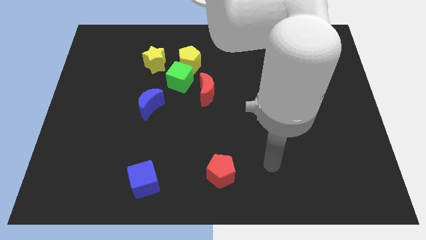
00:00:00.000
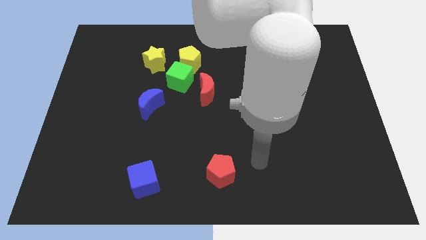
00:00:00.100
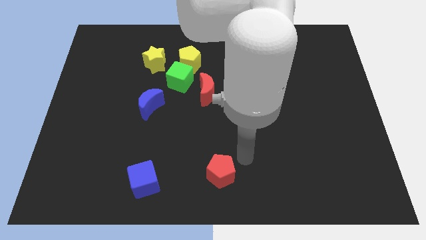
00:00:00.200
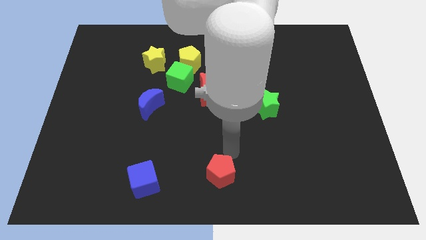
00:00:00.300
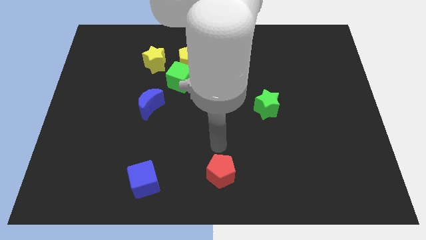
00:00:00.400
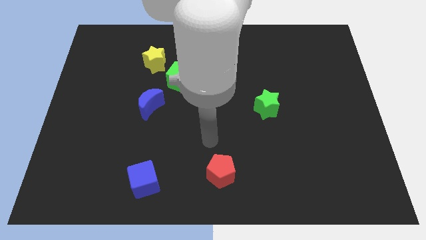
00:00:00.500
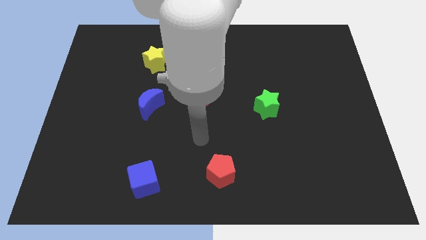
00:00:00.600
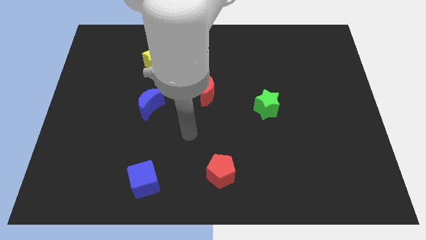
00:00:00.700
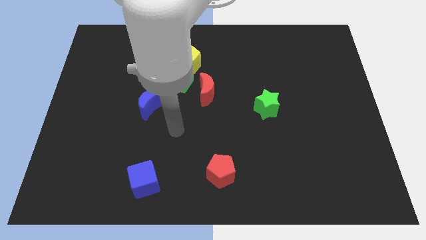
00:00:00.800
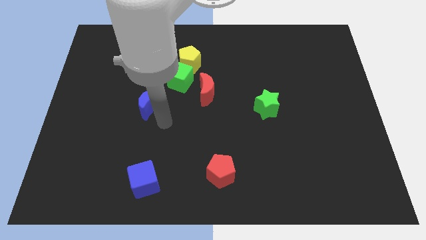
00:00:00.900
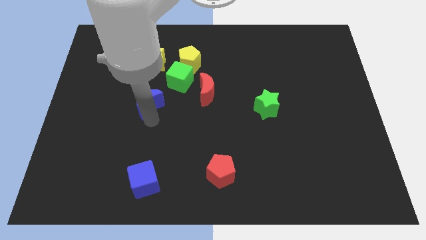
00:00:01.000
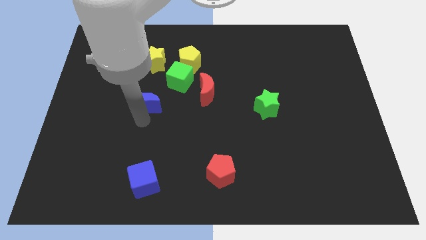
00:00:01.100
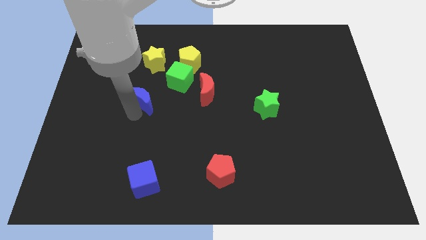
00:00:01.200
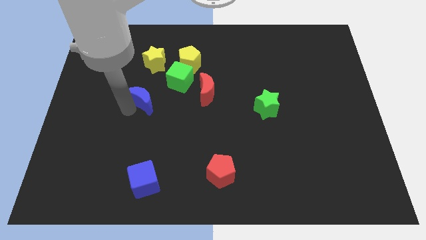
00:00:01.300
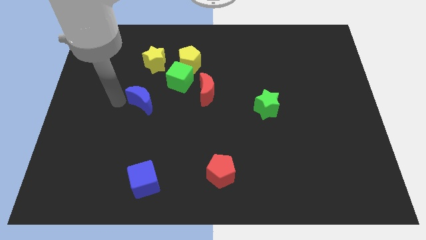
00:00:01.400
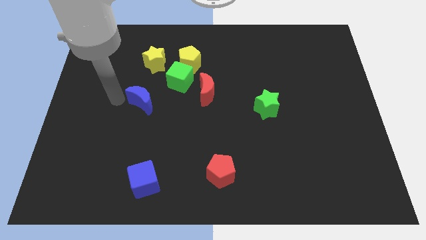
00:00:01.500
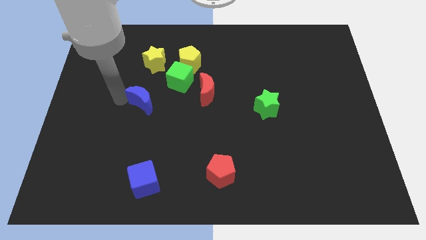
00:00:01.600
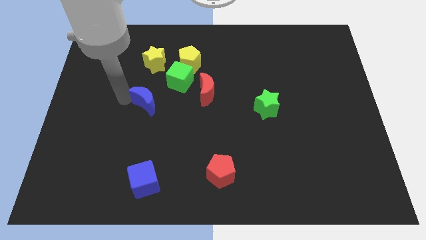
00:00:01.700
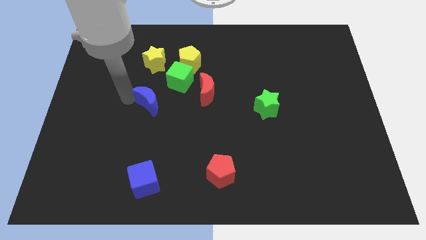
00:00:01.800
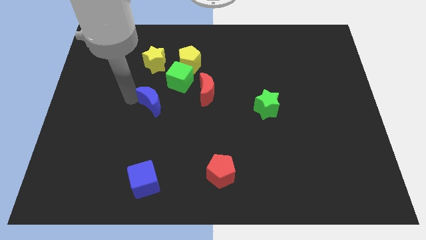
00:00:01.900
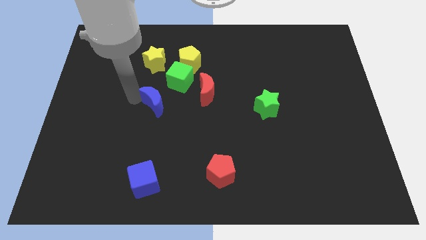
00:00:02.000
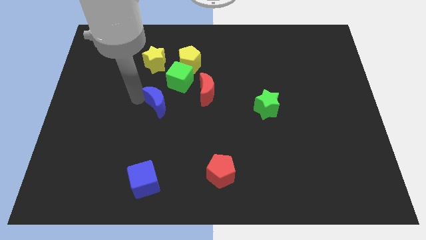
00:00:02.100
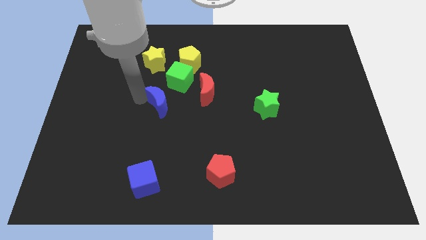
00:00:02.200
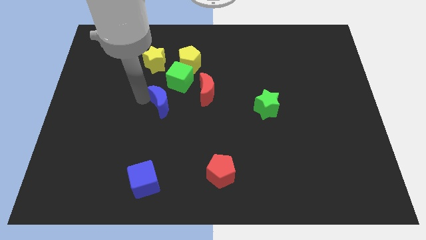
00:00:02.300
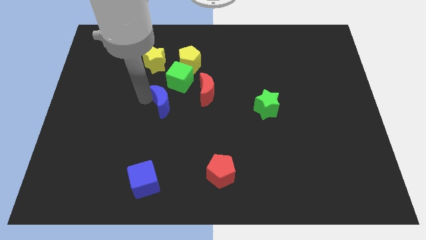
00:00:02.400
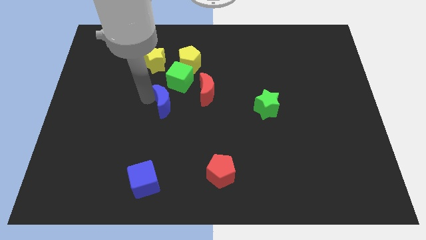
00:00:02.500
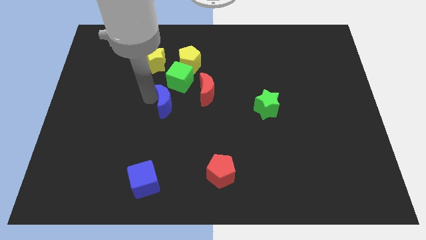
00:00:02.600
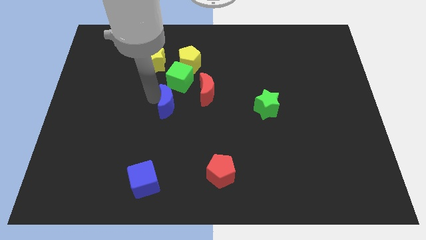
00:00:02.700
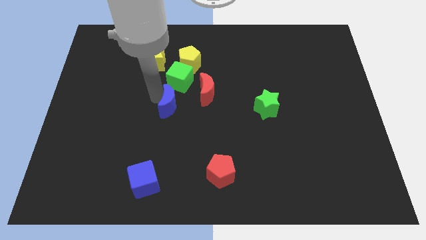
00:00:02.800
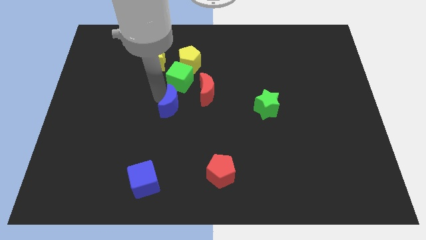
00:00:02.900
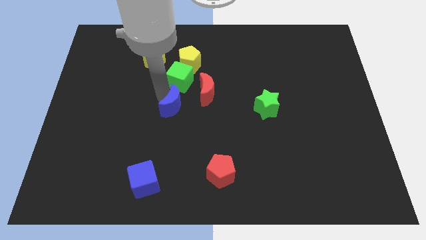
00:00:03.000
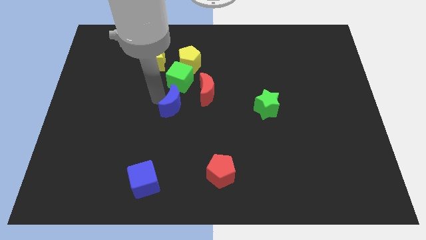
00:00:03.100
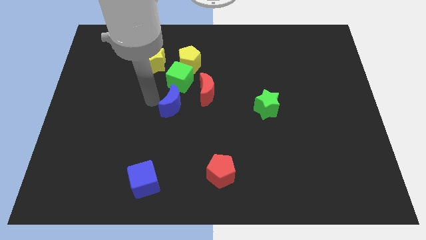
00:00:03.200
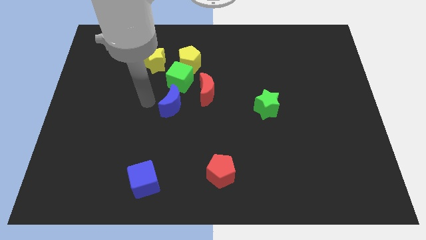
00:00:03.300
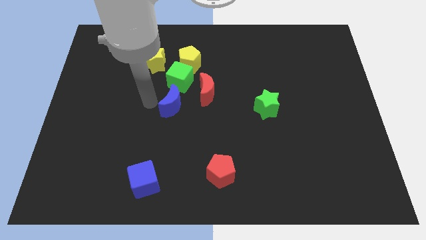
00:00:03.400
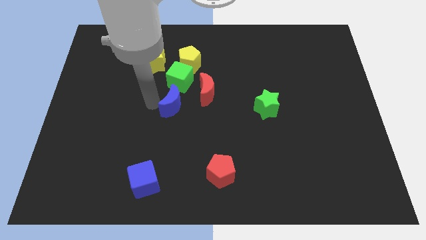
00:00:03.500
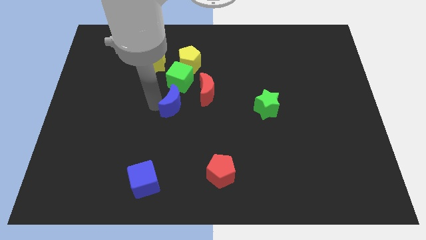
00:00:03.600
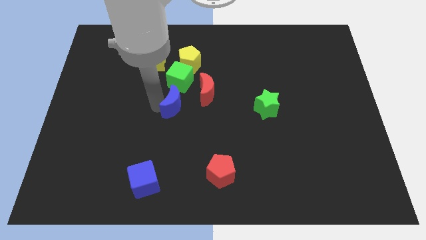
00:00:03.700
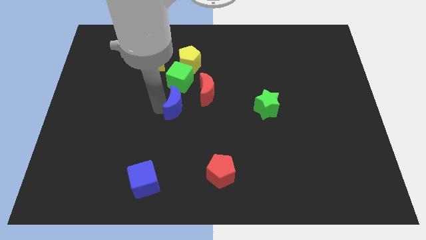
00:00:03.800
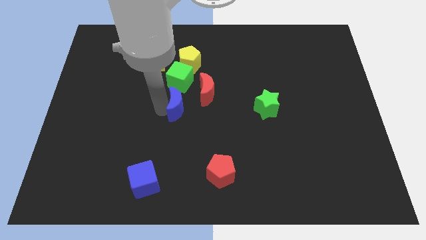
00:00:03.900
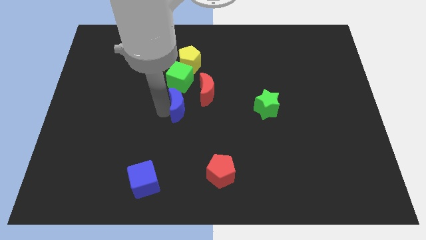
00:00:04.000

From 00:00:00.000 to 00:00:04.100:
slightly push the blue moon right

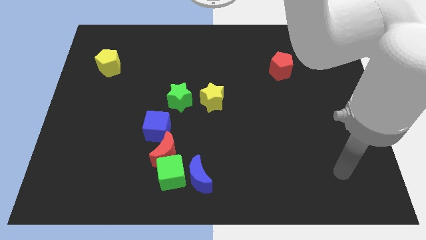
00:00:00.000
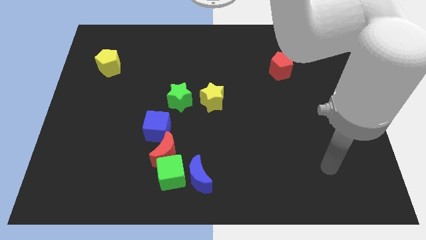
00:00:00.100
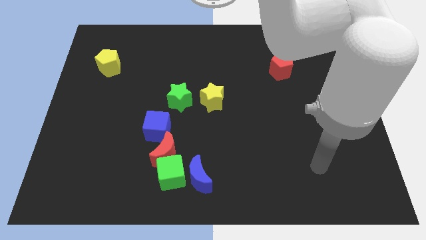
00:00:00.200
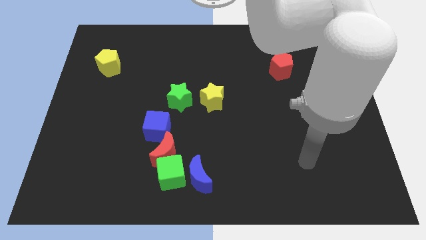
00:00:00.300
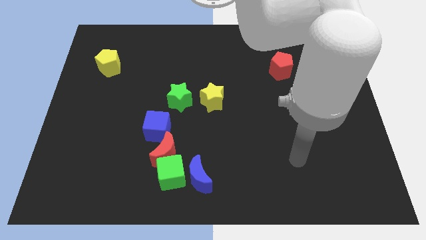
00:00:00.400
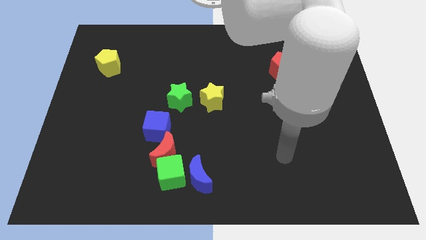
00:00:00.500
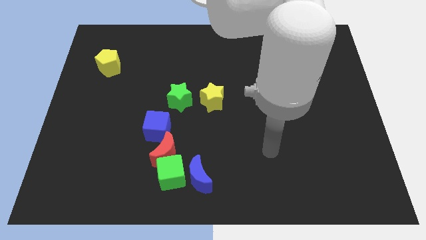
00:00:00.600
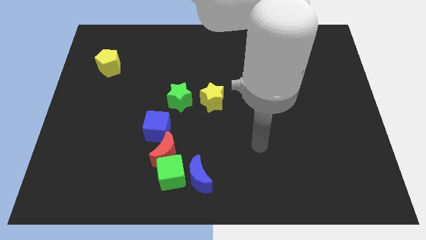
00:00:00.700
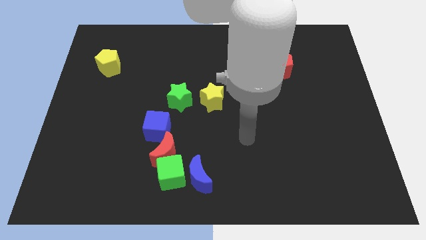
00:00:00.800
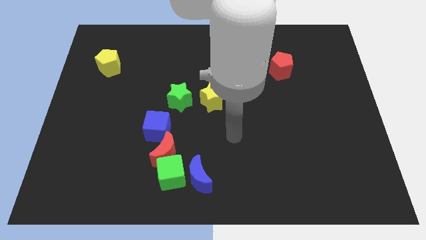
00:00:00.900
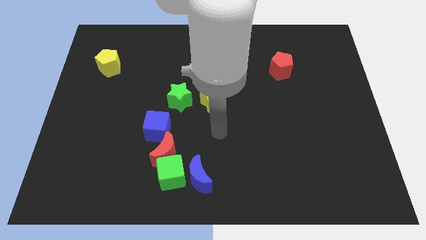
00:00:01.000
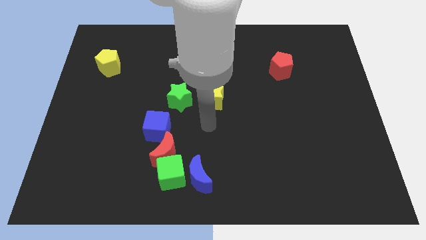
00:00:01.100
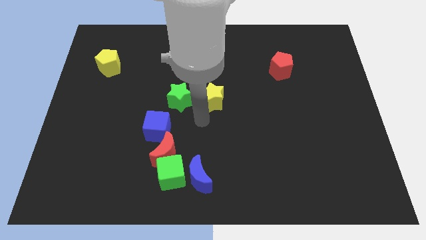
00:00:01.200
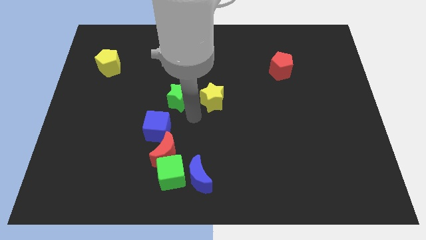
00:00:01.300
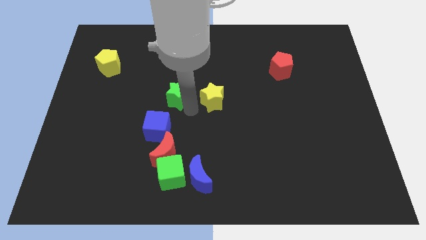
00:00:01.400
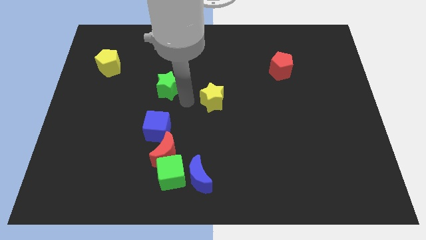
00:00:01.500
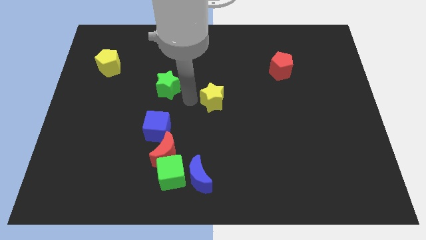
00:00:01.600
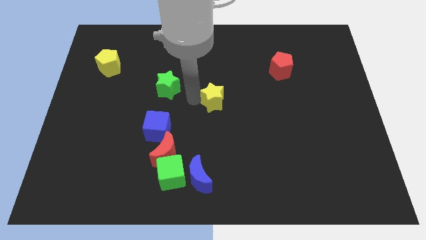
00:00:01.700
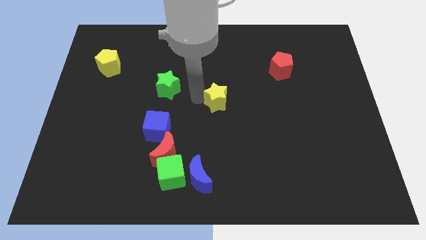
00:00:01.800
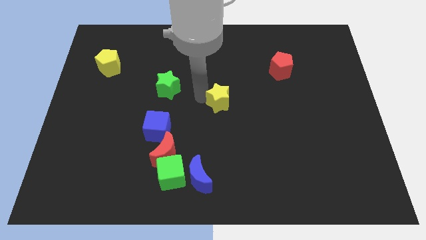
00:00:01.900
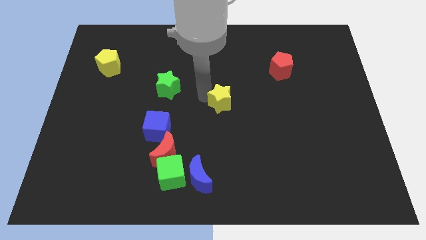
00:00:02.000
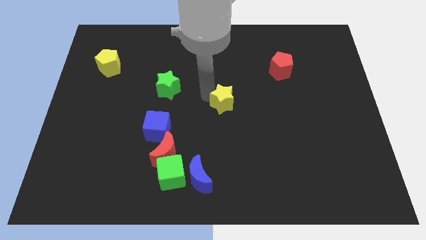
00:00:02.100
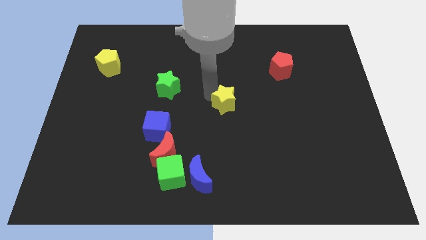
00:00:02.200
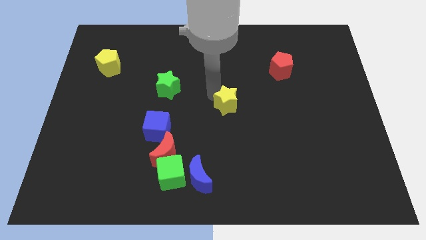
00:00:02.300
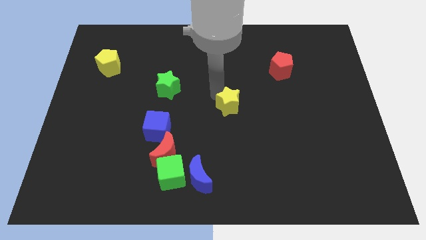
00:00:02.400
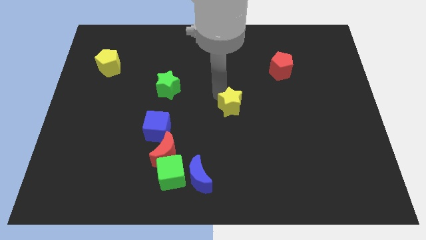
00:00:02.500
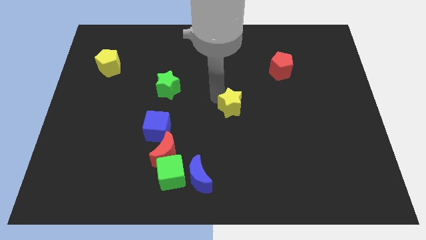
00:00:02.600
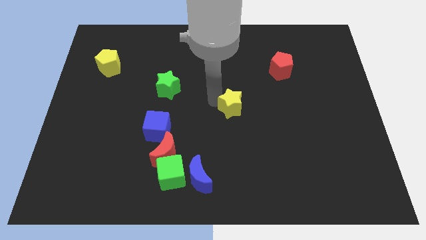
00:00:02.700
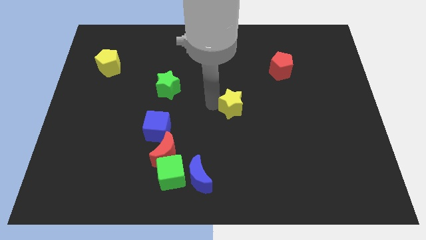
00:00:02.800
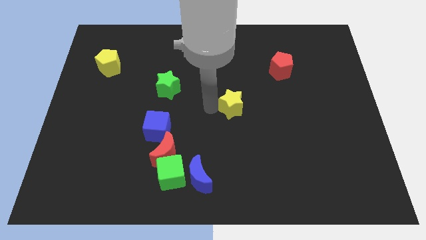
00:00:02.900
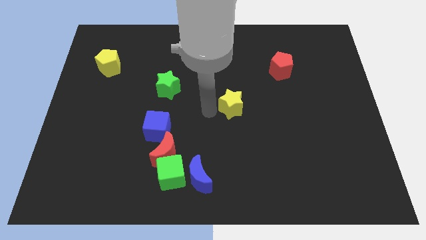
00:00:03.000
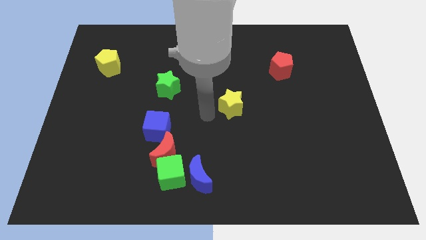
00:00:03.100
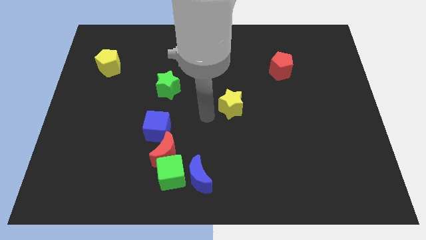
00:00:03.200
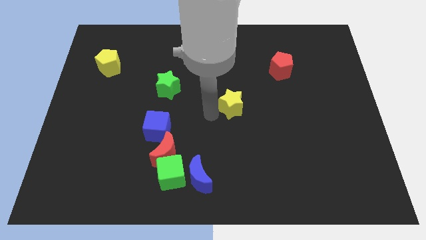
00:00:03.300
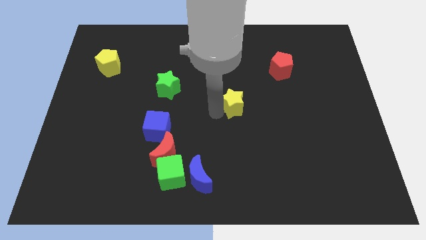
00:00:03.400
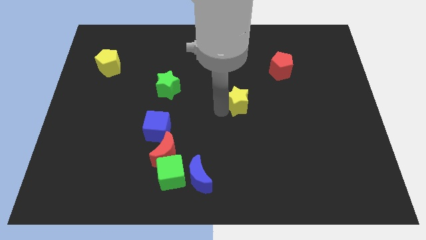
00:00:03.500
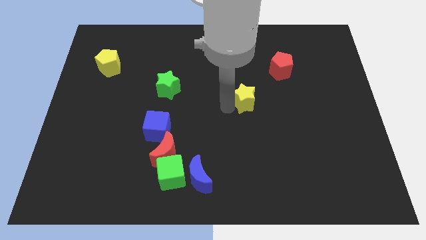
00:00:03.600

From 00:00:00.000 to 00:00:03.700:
push the yellow star to the right a bit

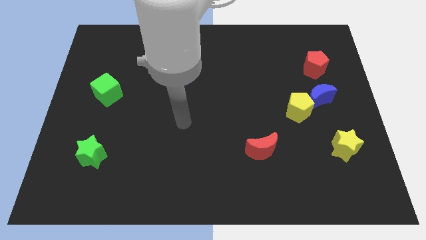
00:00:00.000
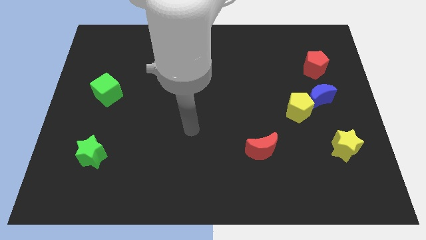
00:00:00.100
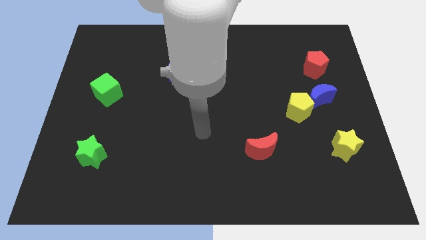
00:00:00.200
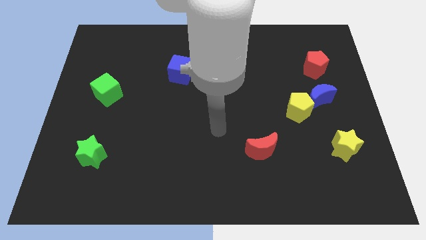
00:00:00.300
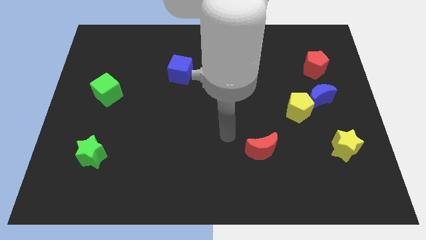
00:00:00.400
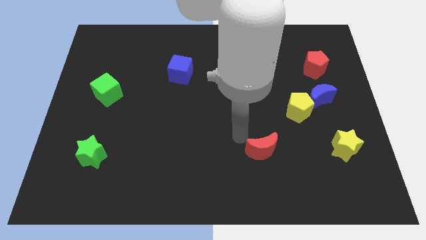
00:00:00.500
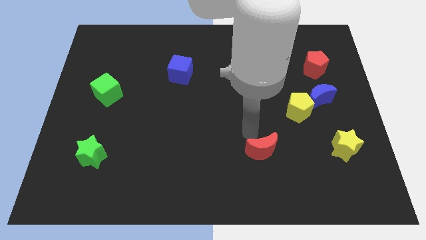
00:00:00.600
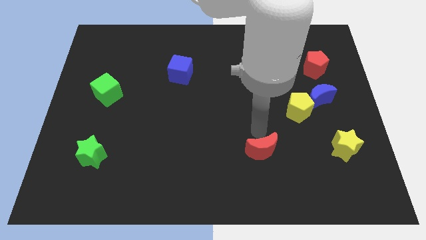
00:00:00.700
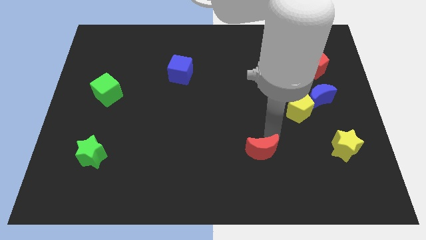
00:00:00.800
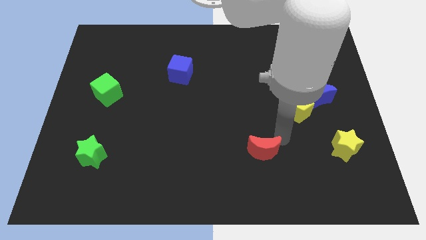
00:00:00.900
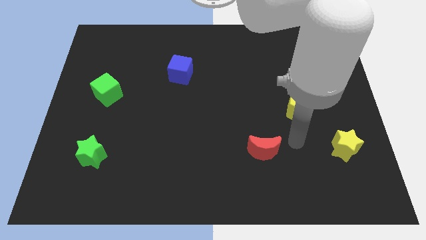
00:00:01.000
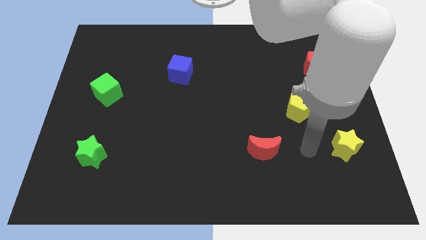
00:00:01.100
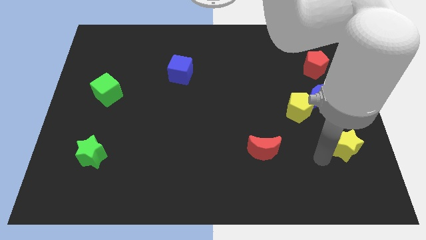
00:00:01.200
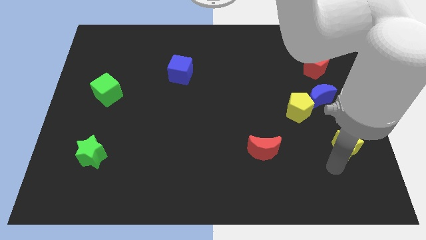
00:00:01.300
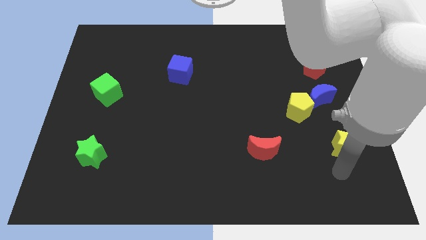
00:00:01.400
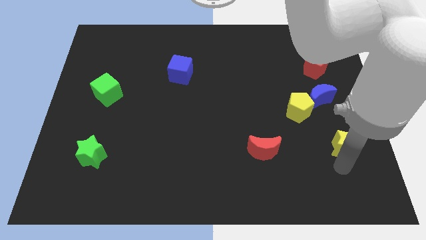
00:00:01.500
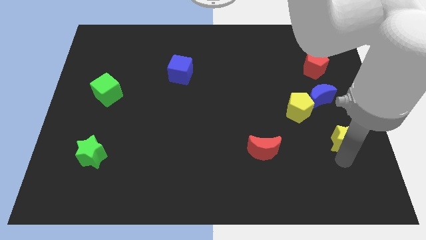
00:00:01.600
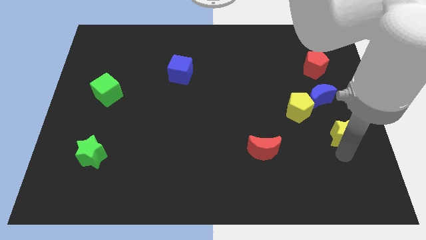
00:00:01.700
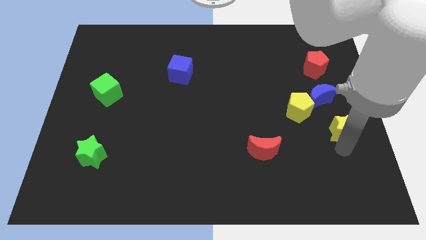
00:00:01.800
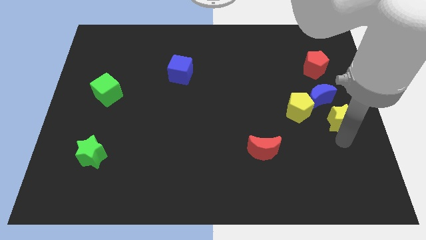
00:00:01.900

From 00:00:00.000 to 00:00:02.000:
move the yellow star a little bit up
